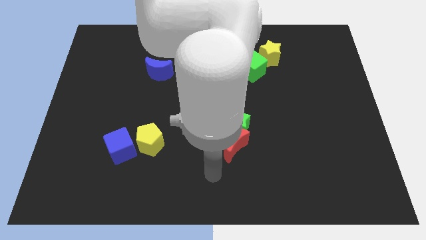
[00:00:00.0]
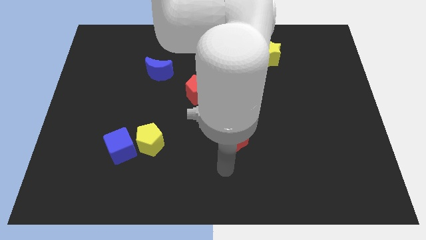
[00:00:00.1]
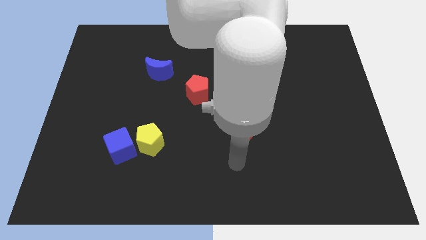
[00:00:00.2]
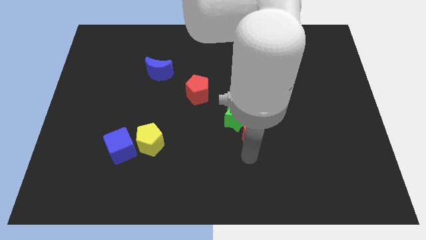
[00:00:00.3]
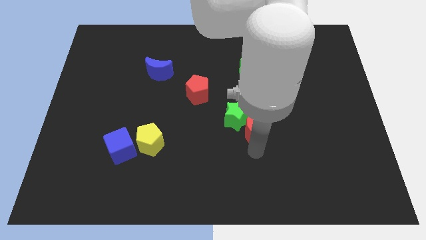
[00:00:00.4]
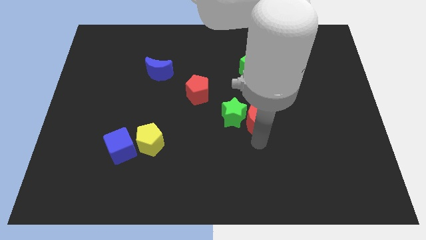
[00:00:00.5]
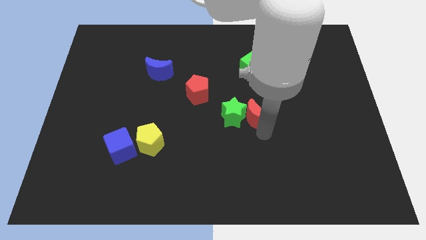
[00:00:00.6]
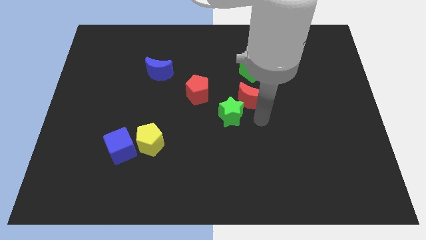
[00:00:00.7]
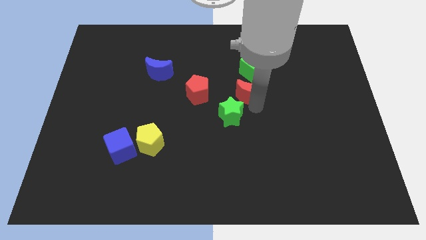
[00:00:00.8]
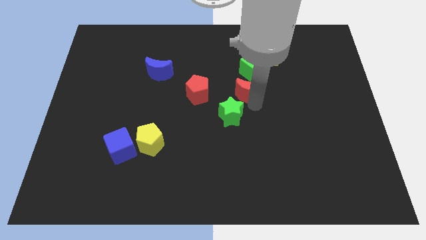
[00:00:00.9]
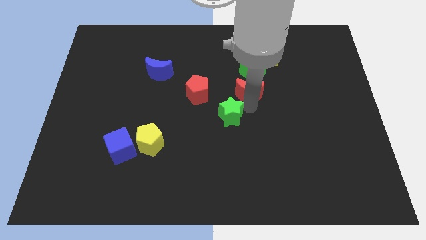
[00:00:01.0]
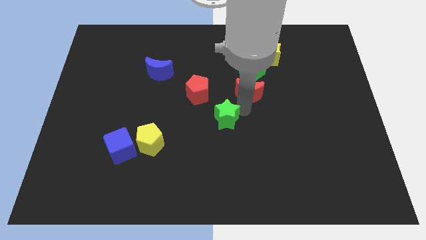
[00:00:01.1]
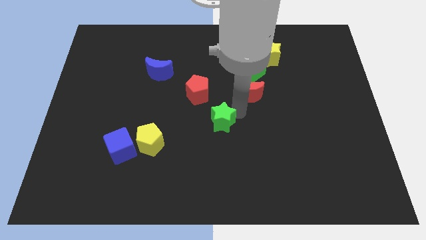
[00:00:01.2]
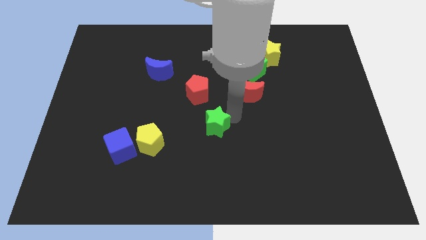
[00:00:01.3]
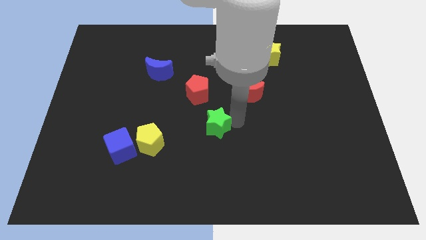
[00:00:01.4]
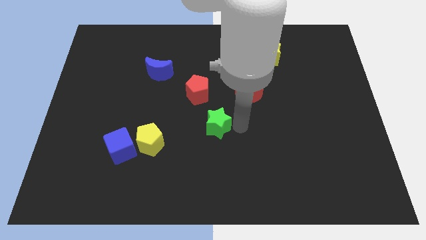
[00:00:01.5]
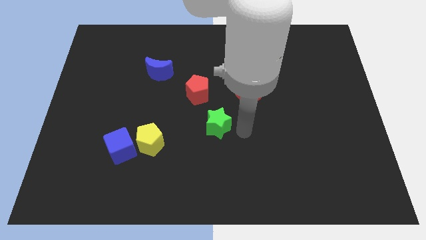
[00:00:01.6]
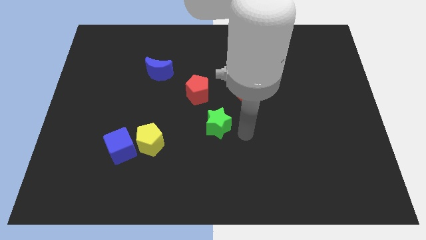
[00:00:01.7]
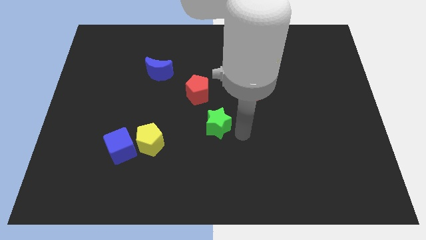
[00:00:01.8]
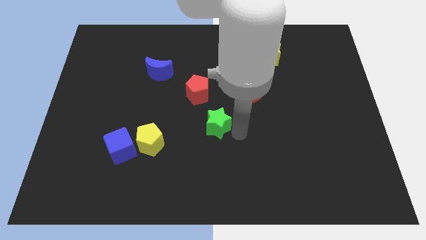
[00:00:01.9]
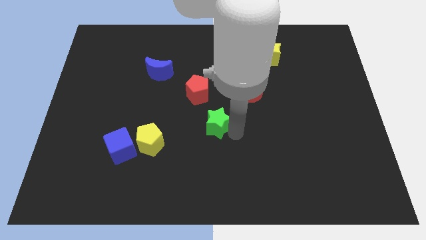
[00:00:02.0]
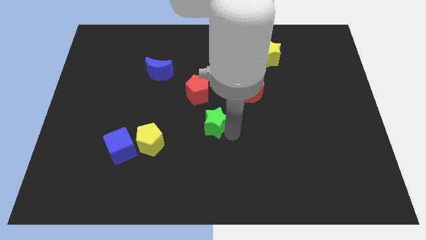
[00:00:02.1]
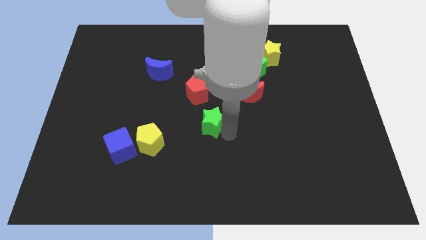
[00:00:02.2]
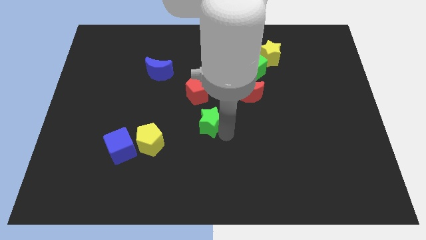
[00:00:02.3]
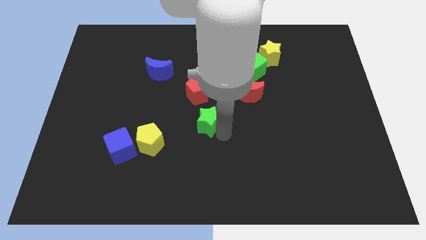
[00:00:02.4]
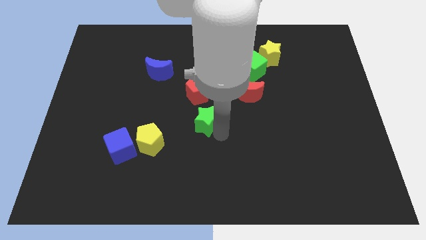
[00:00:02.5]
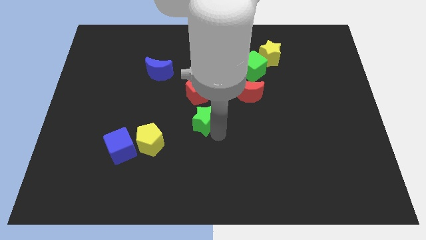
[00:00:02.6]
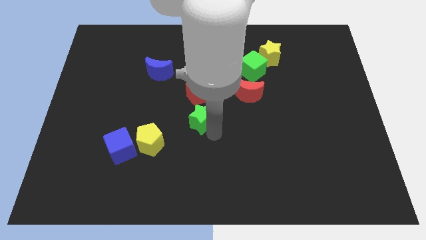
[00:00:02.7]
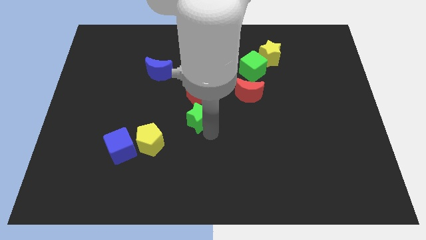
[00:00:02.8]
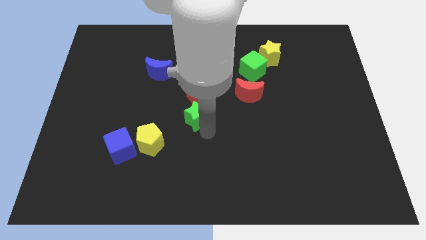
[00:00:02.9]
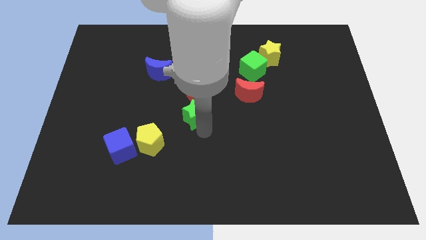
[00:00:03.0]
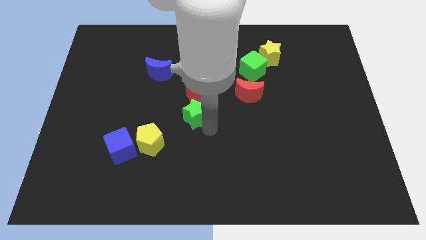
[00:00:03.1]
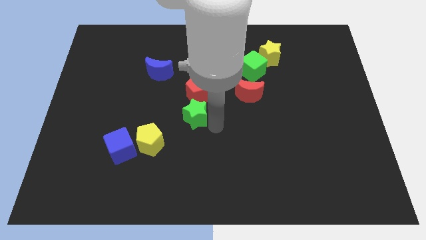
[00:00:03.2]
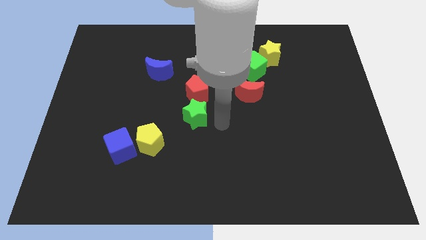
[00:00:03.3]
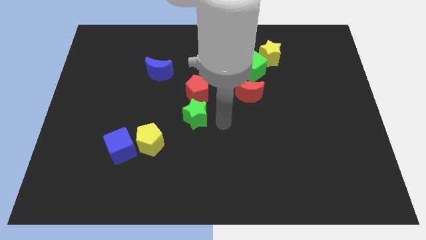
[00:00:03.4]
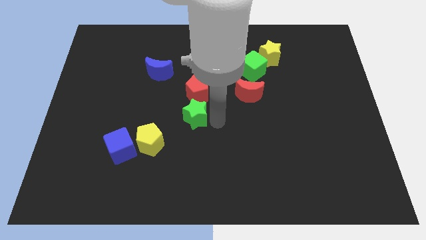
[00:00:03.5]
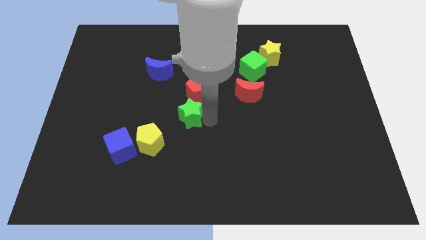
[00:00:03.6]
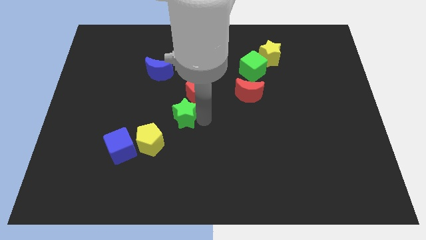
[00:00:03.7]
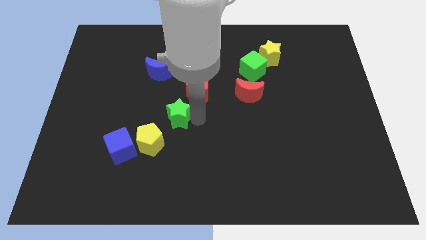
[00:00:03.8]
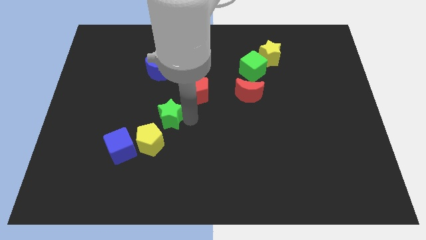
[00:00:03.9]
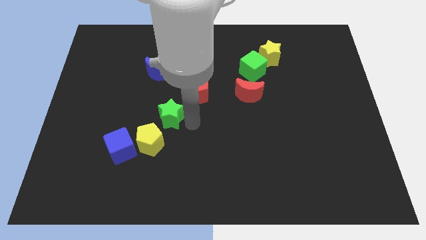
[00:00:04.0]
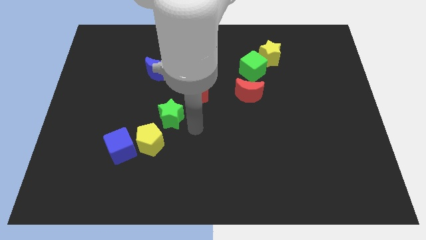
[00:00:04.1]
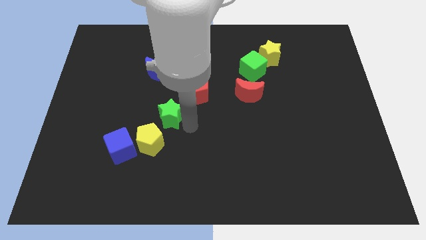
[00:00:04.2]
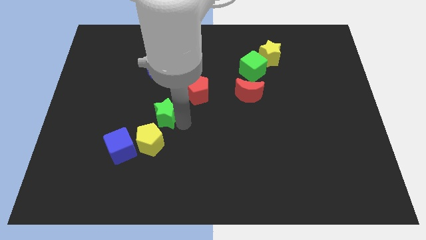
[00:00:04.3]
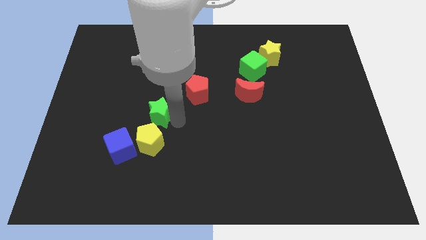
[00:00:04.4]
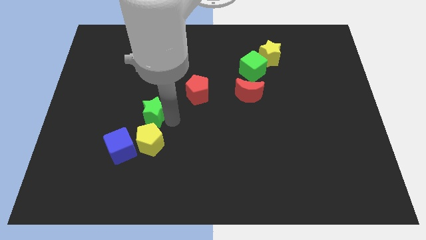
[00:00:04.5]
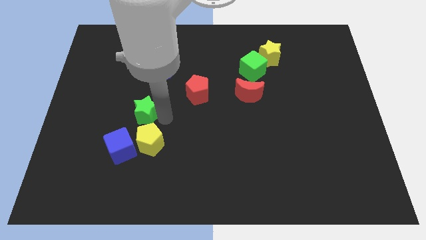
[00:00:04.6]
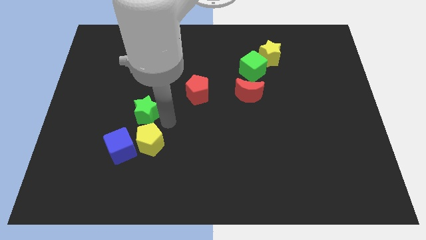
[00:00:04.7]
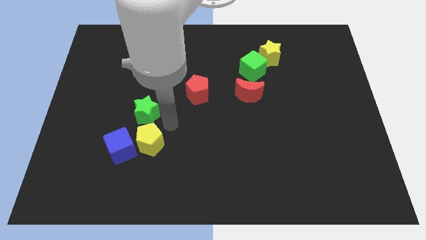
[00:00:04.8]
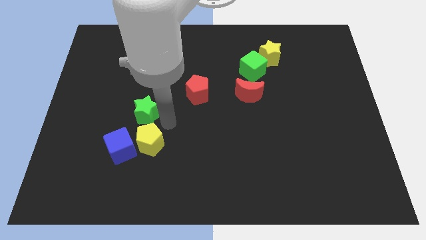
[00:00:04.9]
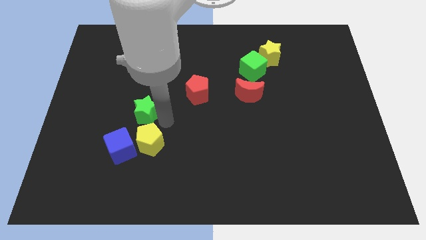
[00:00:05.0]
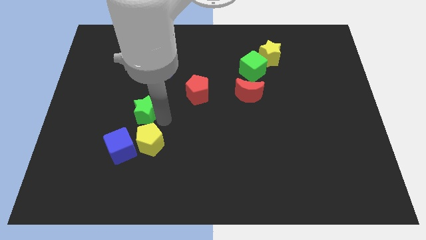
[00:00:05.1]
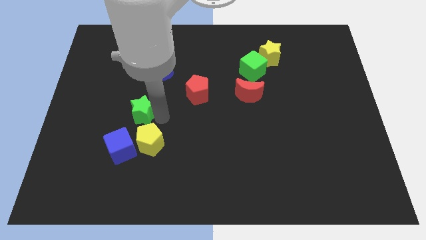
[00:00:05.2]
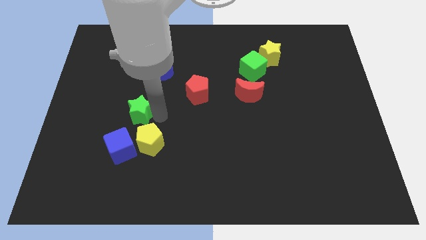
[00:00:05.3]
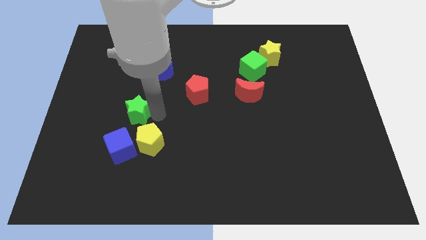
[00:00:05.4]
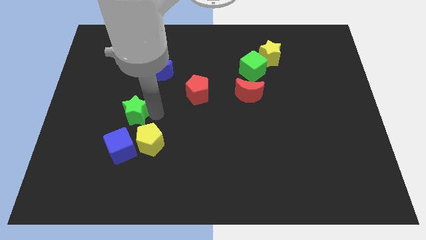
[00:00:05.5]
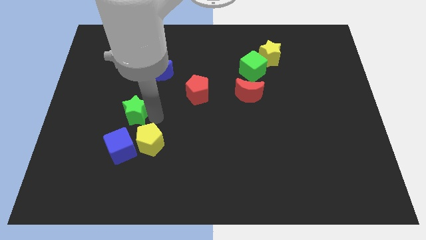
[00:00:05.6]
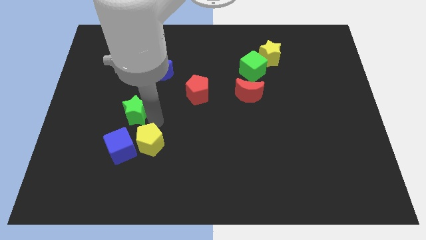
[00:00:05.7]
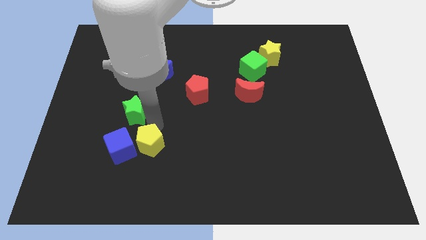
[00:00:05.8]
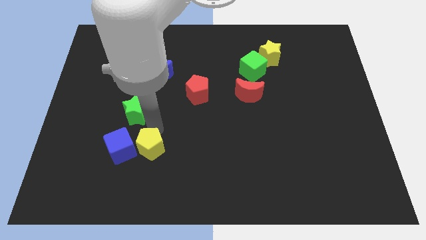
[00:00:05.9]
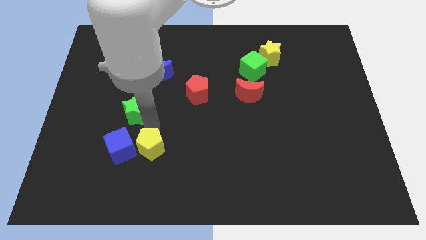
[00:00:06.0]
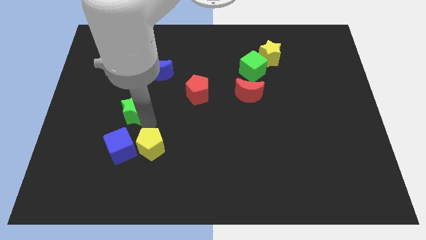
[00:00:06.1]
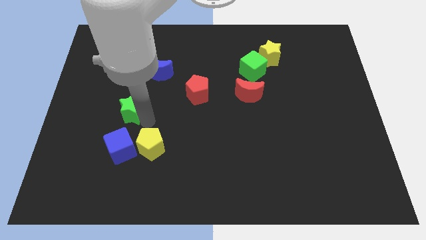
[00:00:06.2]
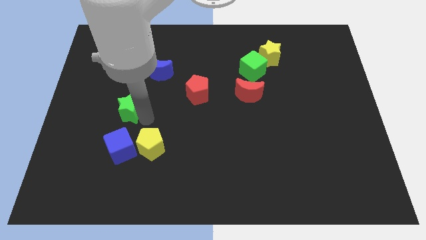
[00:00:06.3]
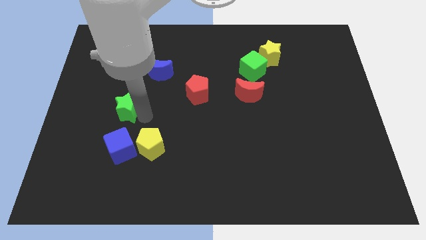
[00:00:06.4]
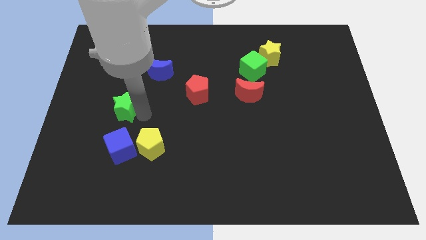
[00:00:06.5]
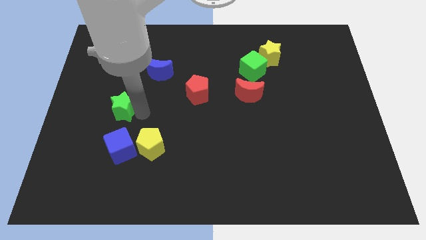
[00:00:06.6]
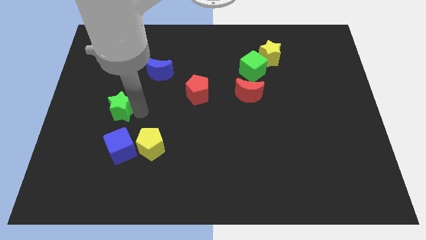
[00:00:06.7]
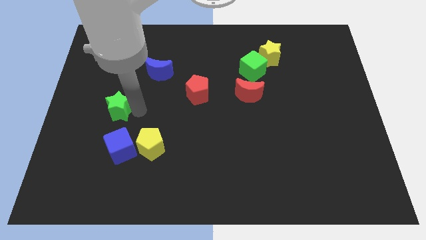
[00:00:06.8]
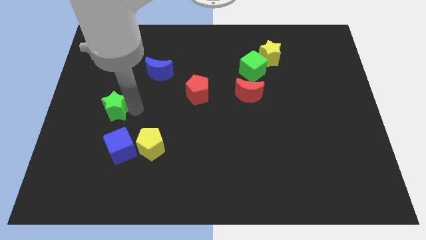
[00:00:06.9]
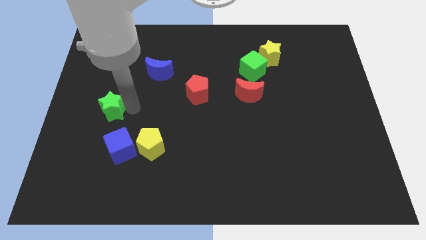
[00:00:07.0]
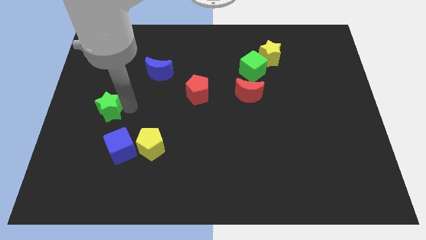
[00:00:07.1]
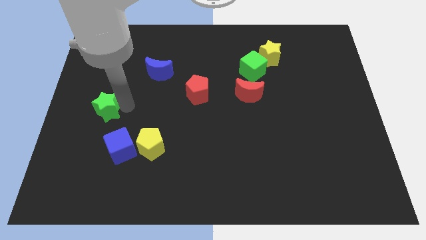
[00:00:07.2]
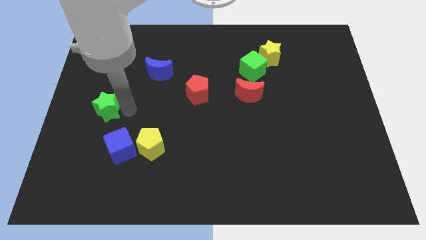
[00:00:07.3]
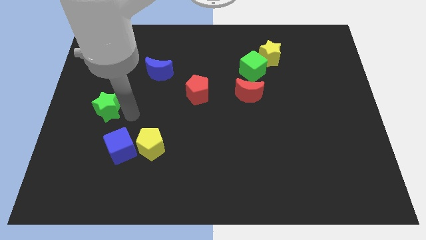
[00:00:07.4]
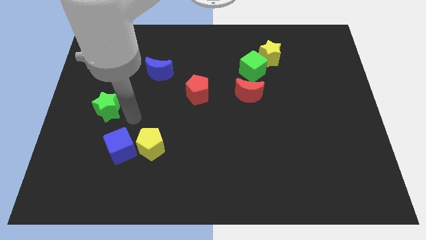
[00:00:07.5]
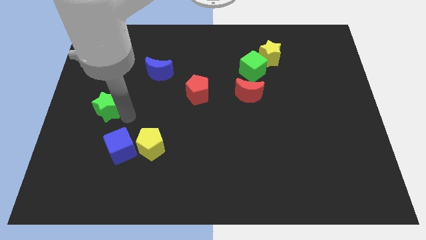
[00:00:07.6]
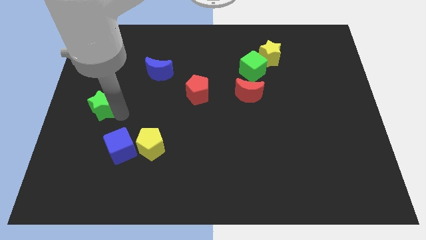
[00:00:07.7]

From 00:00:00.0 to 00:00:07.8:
push the green star to the left side of the board
